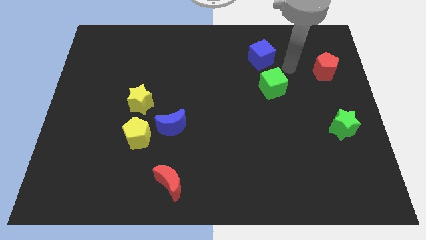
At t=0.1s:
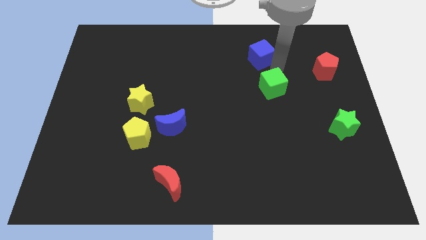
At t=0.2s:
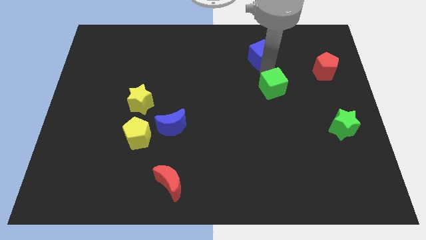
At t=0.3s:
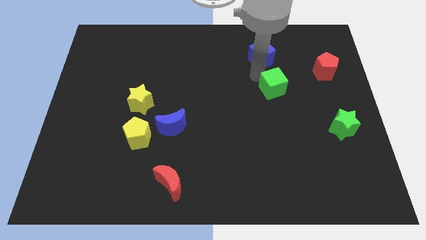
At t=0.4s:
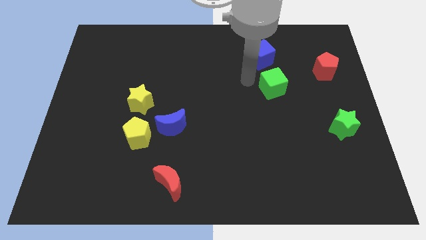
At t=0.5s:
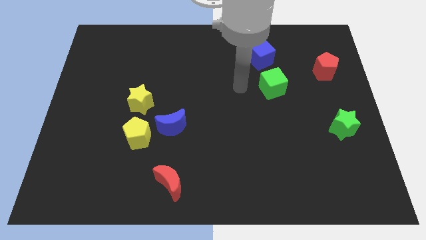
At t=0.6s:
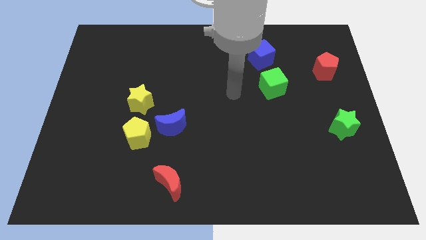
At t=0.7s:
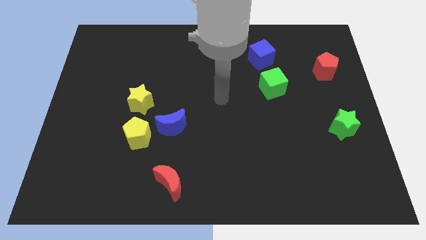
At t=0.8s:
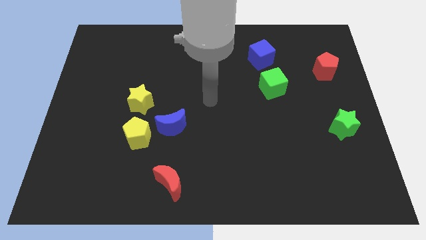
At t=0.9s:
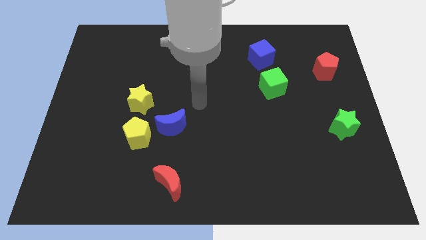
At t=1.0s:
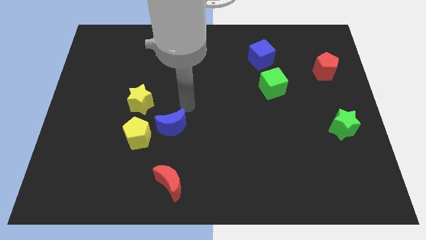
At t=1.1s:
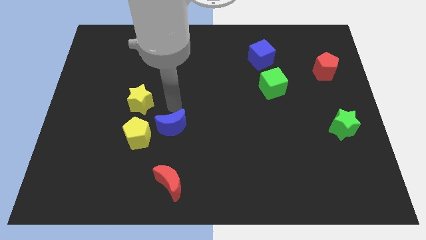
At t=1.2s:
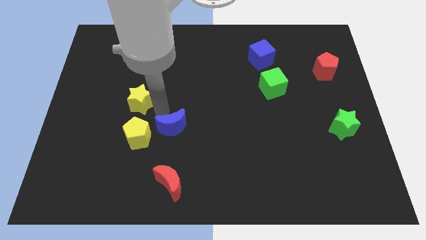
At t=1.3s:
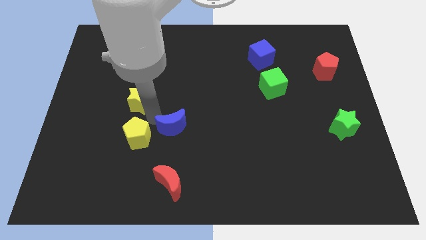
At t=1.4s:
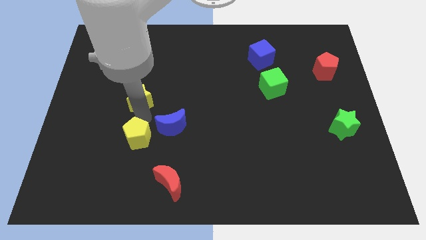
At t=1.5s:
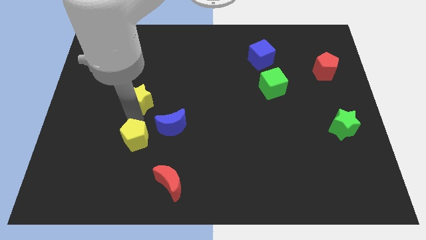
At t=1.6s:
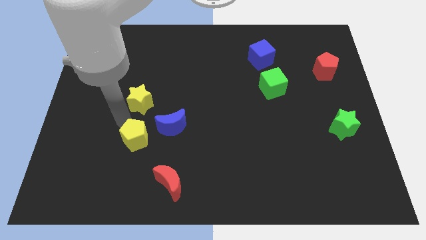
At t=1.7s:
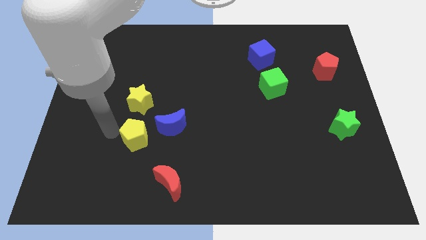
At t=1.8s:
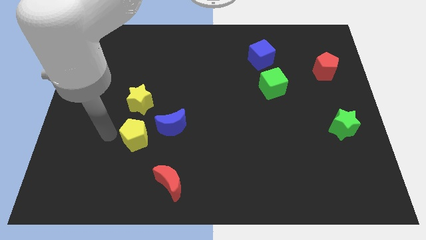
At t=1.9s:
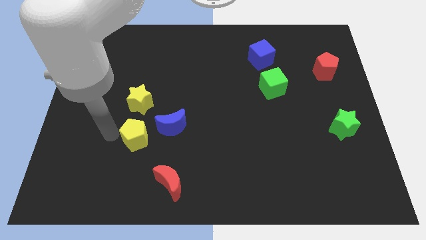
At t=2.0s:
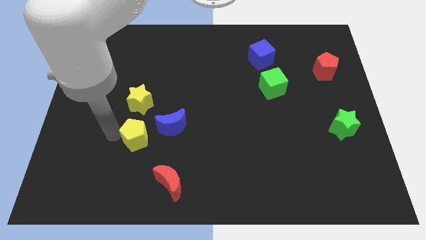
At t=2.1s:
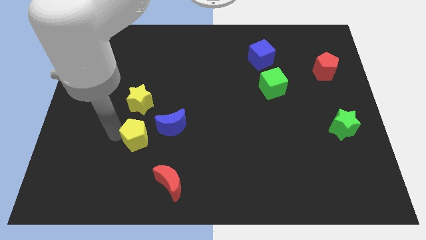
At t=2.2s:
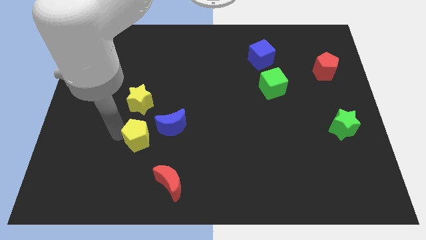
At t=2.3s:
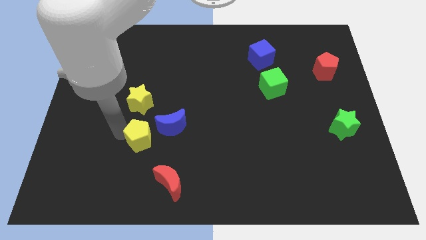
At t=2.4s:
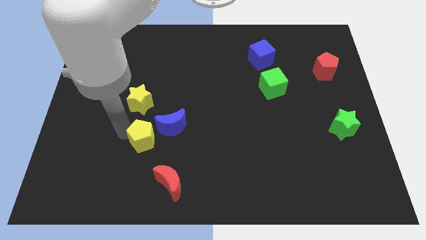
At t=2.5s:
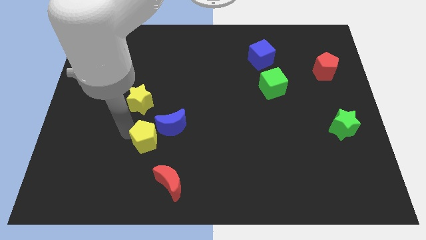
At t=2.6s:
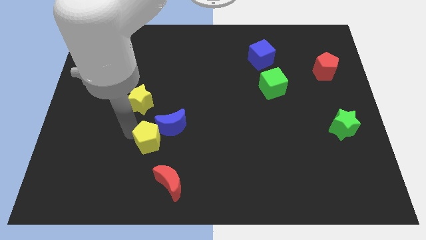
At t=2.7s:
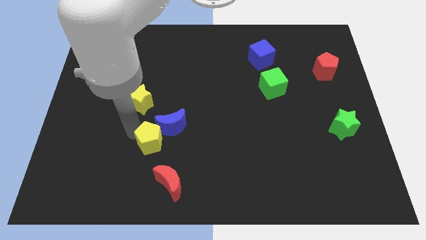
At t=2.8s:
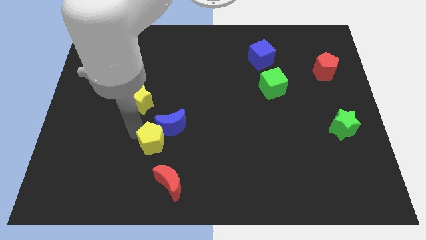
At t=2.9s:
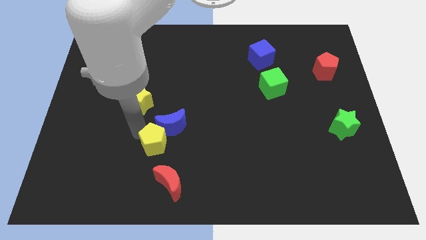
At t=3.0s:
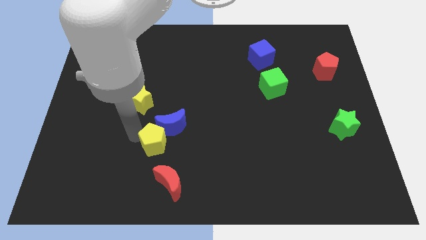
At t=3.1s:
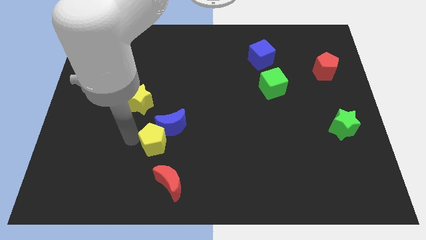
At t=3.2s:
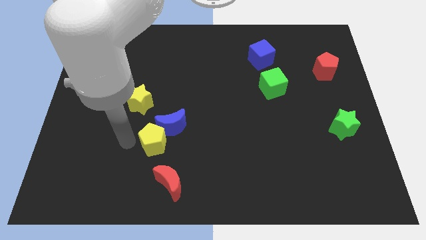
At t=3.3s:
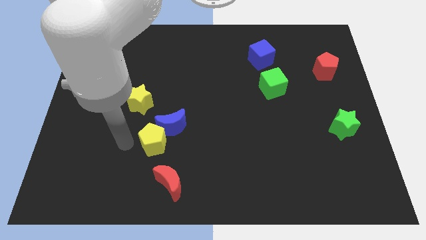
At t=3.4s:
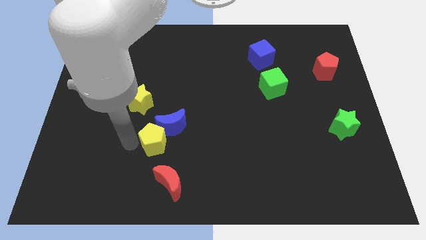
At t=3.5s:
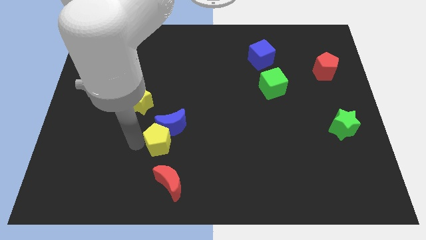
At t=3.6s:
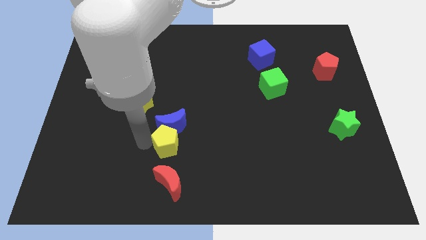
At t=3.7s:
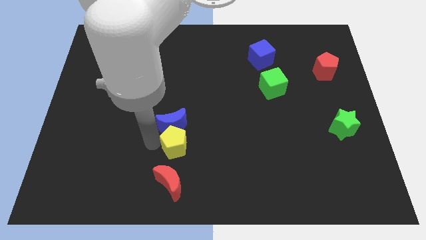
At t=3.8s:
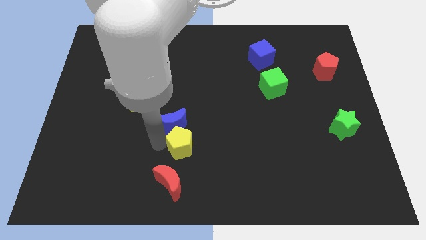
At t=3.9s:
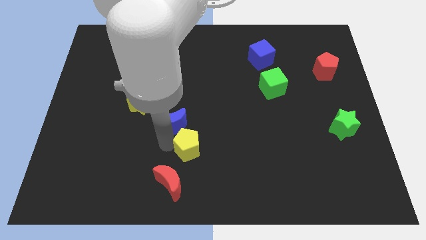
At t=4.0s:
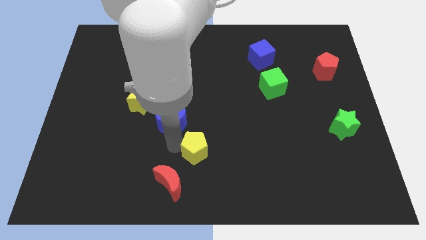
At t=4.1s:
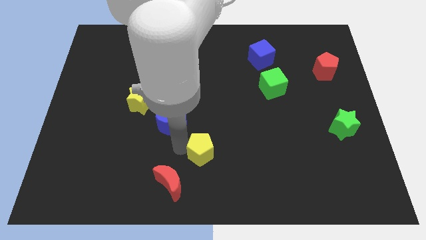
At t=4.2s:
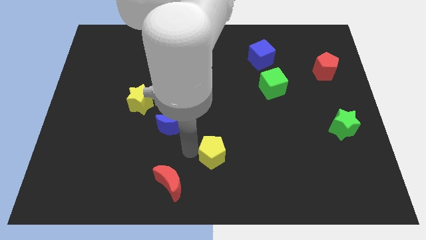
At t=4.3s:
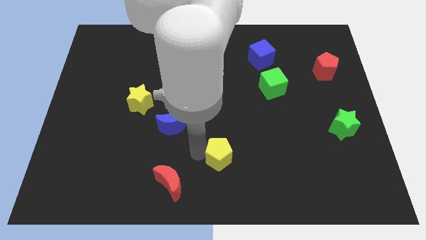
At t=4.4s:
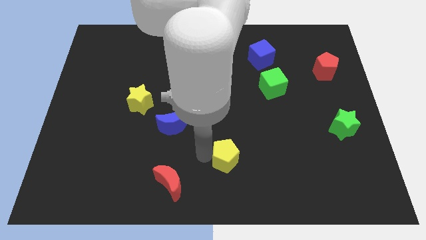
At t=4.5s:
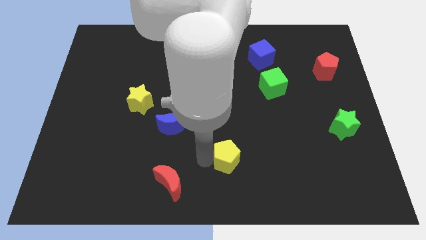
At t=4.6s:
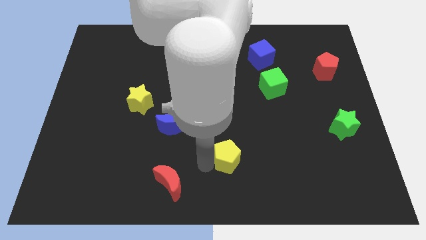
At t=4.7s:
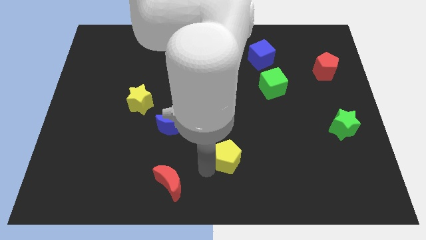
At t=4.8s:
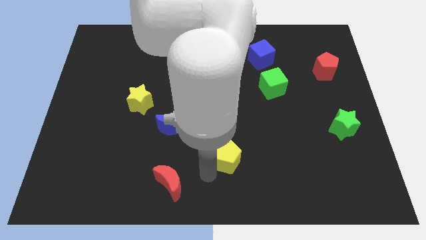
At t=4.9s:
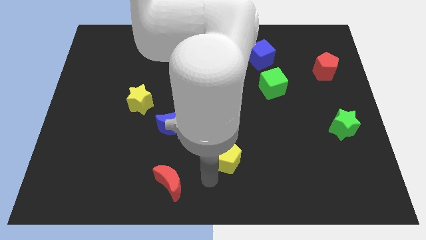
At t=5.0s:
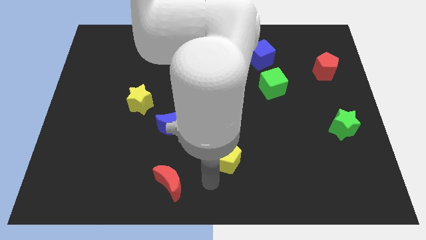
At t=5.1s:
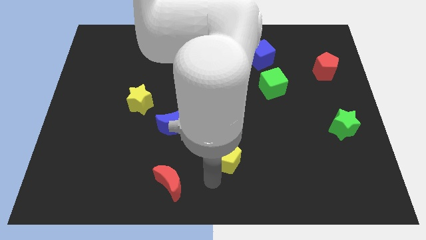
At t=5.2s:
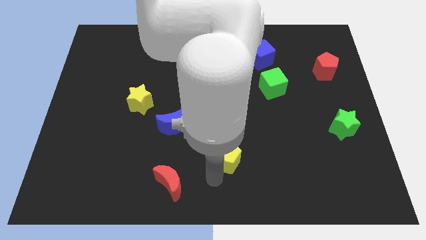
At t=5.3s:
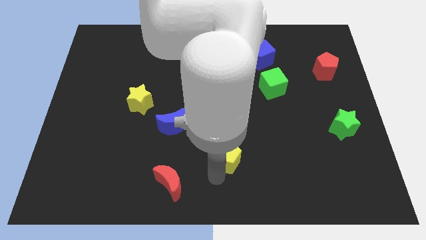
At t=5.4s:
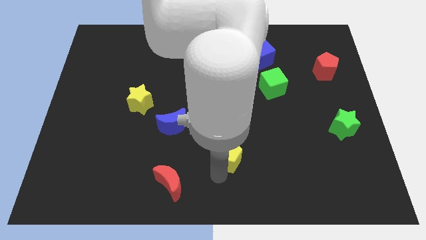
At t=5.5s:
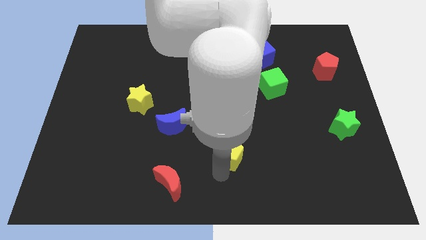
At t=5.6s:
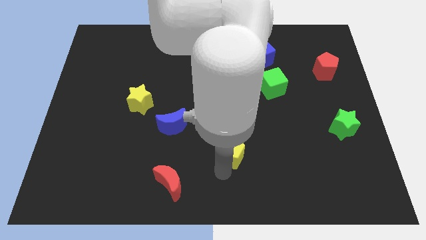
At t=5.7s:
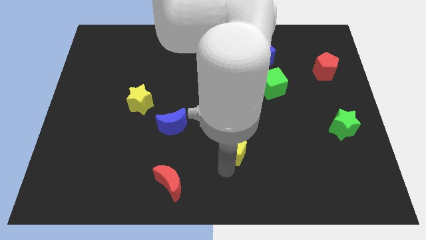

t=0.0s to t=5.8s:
push the yellow pentagon to the right

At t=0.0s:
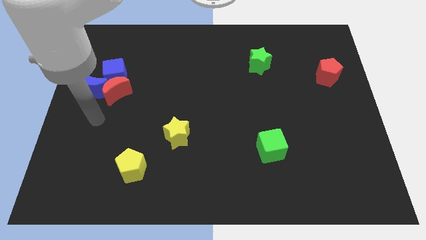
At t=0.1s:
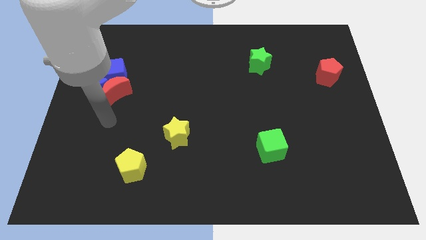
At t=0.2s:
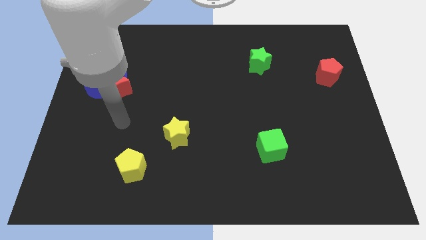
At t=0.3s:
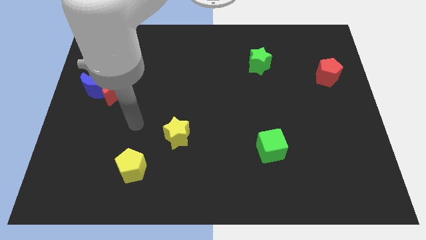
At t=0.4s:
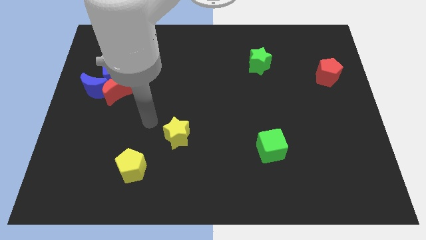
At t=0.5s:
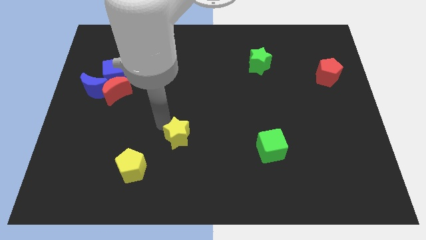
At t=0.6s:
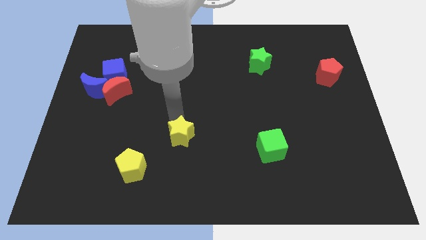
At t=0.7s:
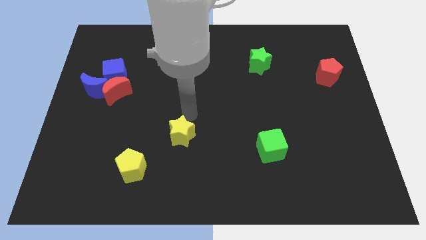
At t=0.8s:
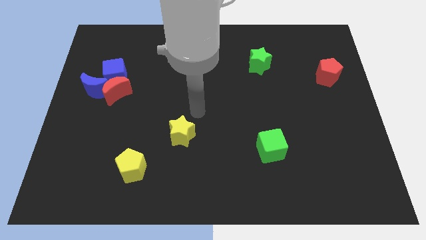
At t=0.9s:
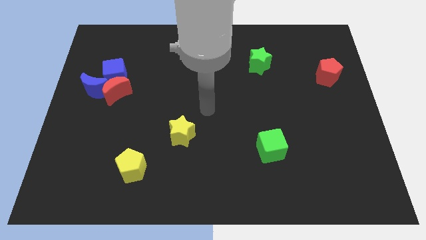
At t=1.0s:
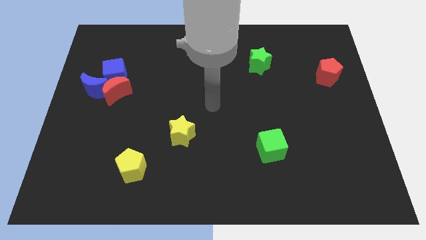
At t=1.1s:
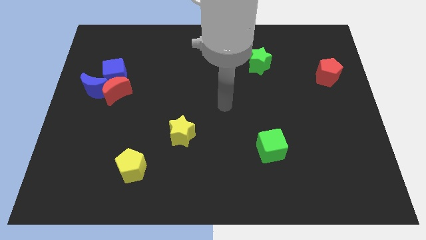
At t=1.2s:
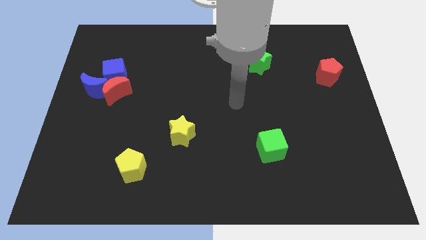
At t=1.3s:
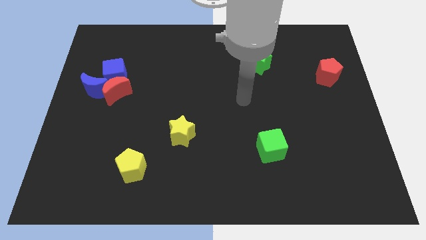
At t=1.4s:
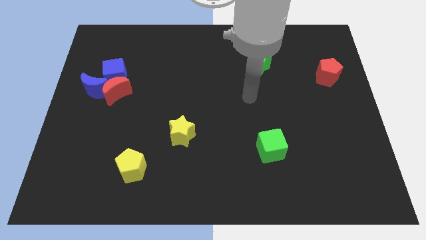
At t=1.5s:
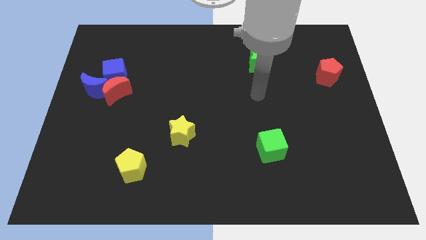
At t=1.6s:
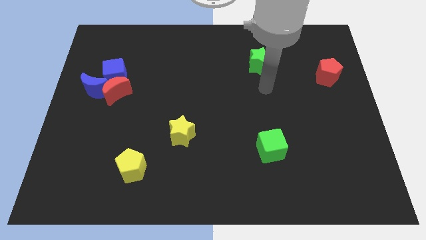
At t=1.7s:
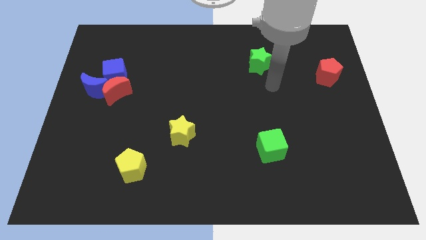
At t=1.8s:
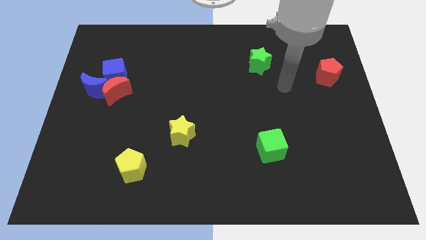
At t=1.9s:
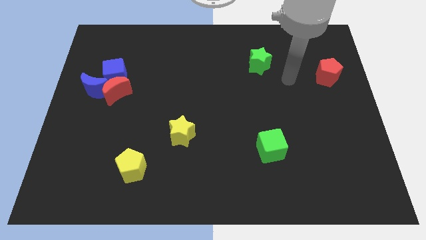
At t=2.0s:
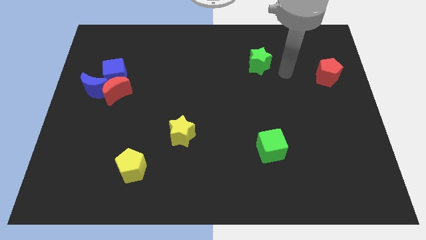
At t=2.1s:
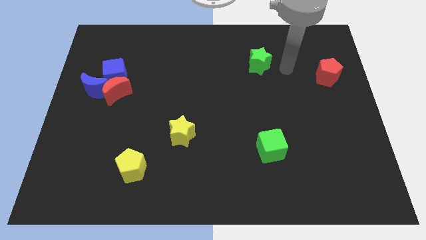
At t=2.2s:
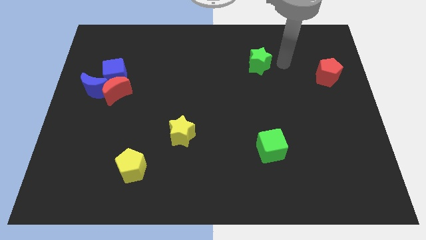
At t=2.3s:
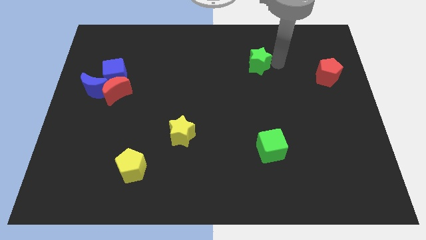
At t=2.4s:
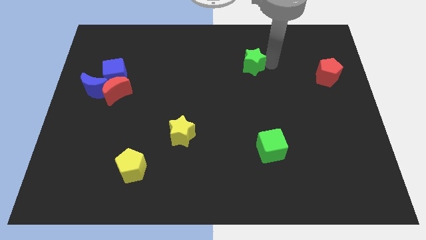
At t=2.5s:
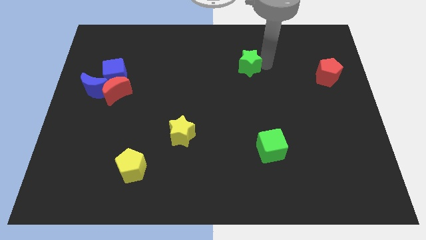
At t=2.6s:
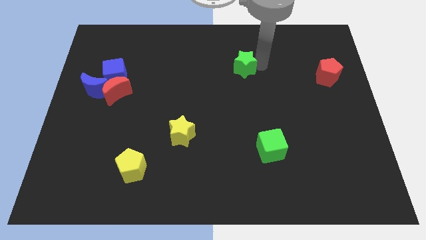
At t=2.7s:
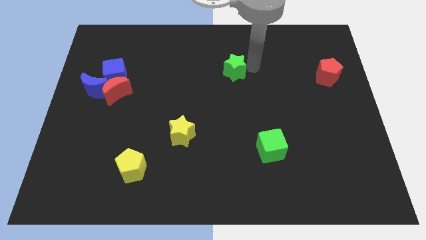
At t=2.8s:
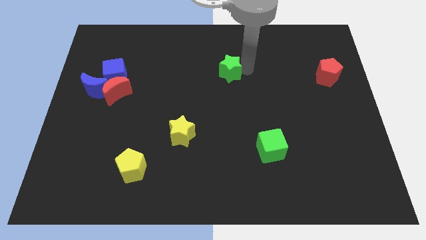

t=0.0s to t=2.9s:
slightly push the green star to the left
